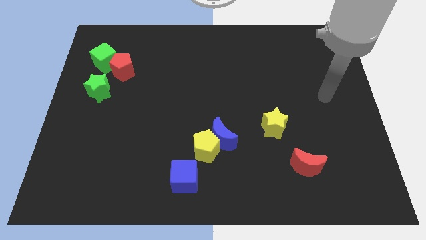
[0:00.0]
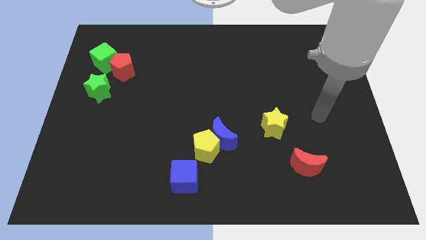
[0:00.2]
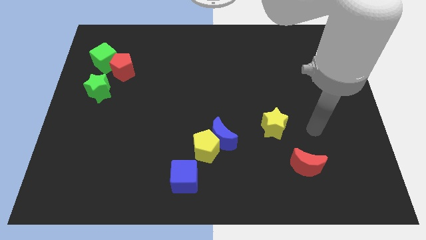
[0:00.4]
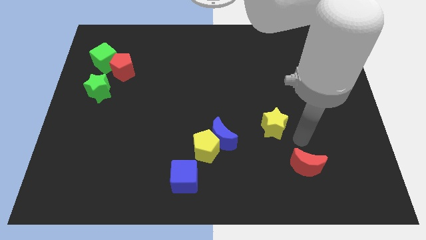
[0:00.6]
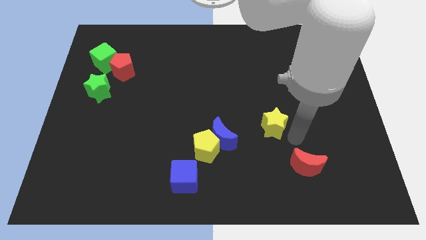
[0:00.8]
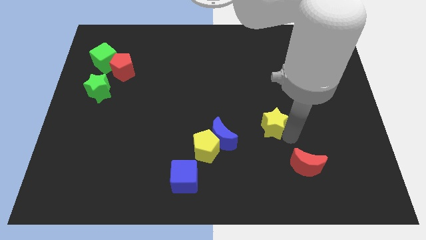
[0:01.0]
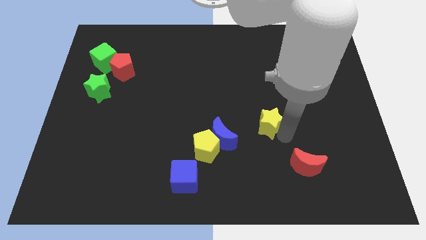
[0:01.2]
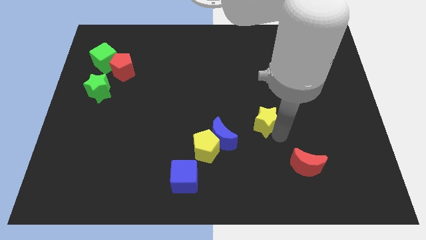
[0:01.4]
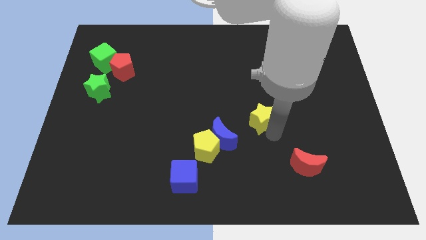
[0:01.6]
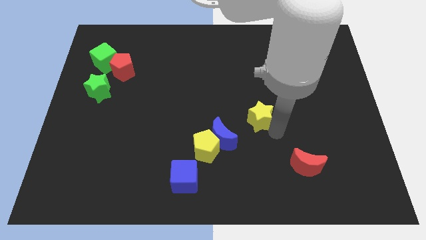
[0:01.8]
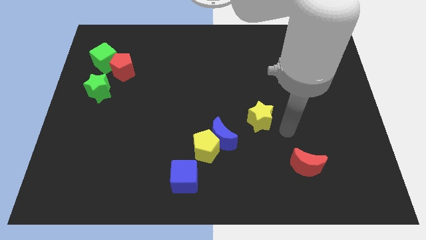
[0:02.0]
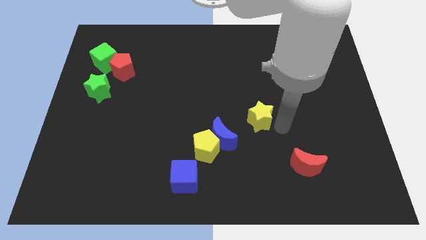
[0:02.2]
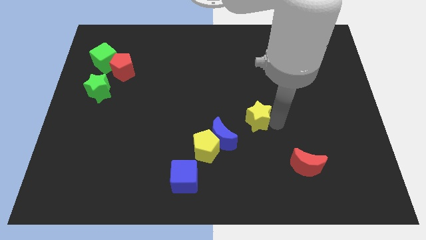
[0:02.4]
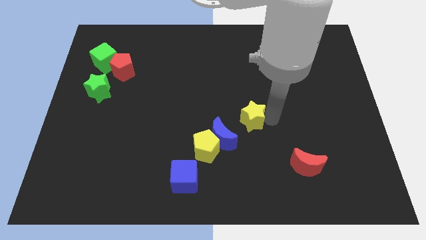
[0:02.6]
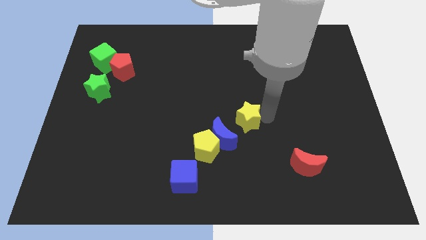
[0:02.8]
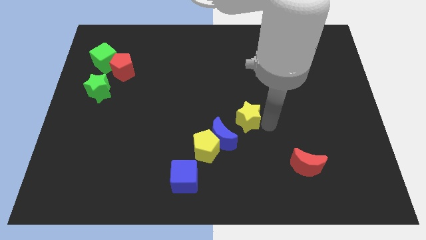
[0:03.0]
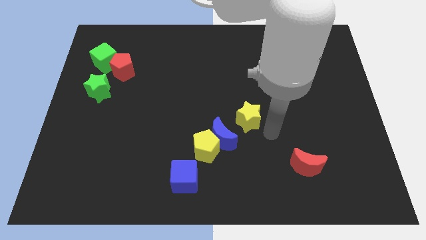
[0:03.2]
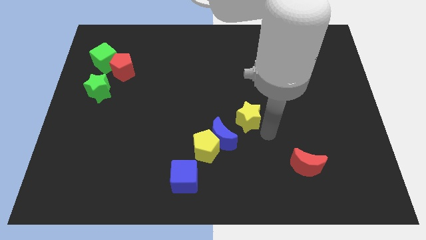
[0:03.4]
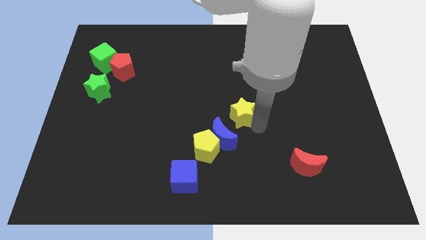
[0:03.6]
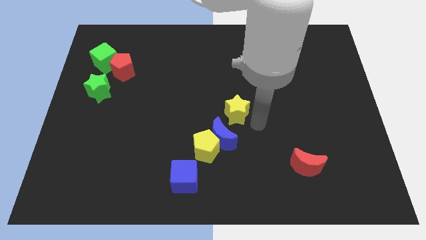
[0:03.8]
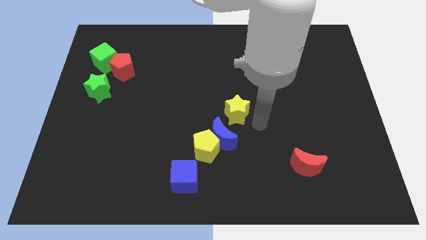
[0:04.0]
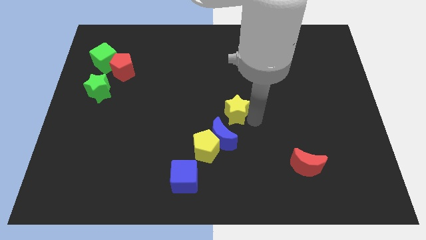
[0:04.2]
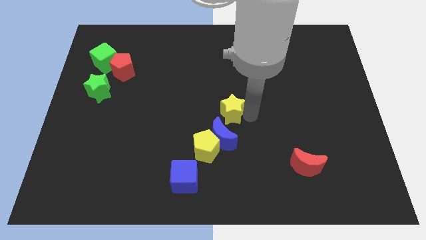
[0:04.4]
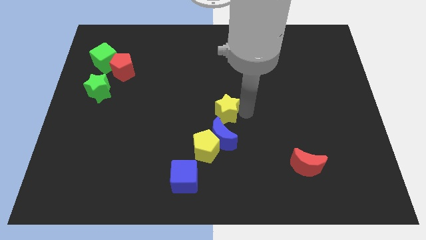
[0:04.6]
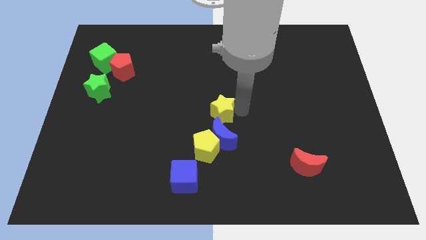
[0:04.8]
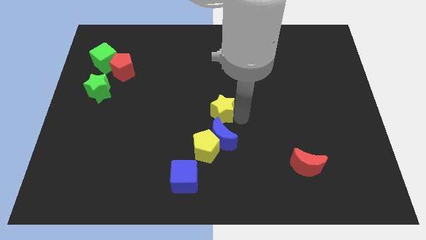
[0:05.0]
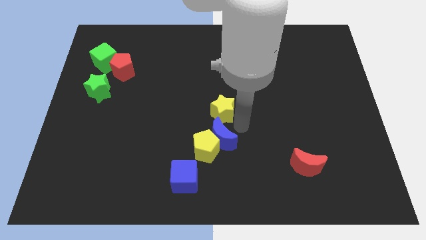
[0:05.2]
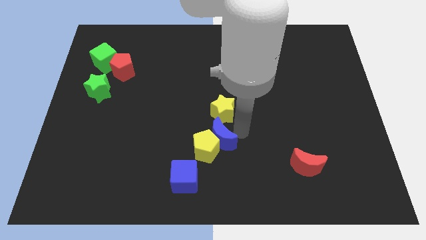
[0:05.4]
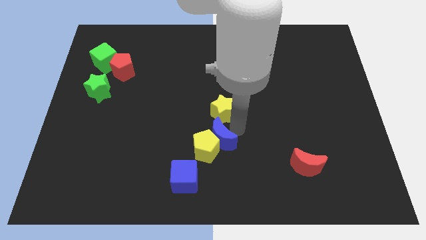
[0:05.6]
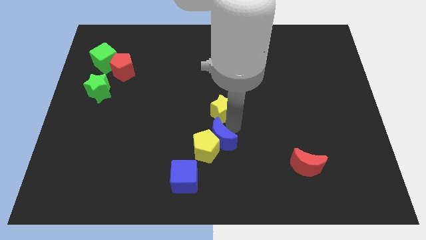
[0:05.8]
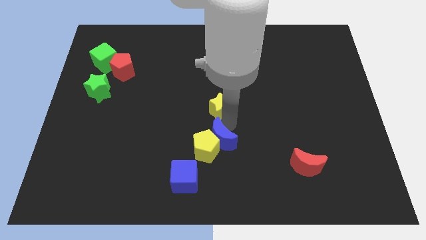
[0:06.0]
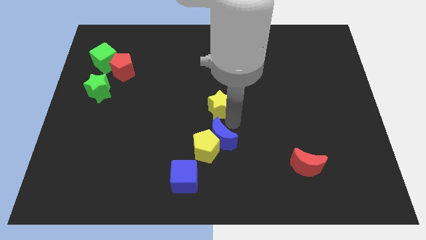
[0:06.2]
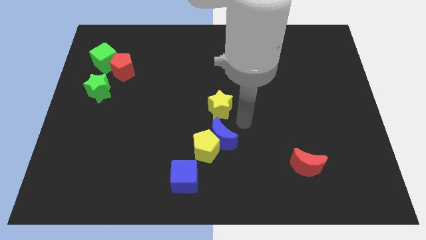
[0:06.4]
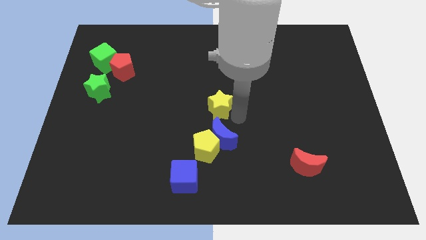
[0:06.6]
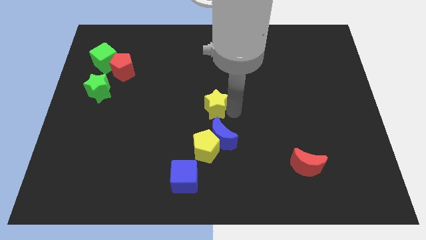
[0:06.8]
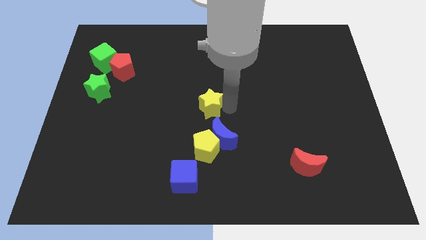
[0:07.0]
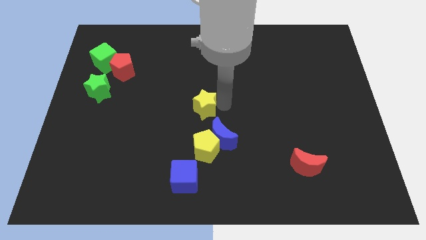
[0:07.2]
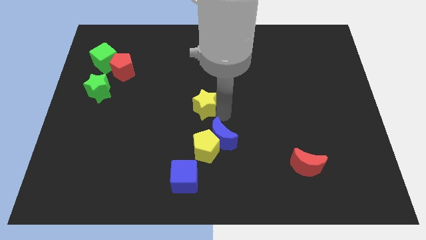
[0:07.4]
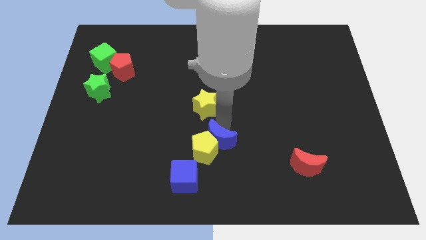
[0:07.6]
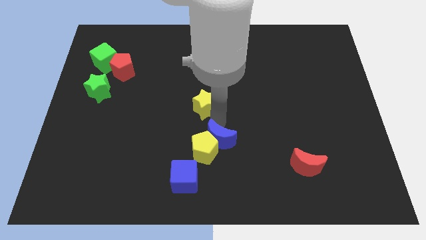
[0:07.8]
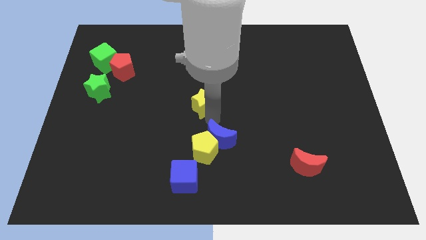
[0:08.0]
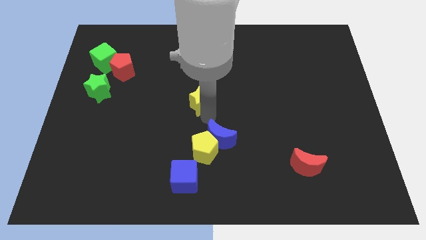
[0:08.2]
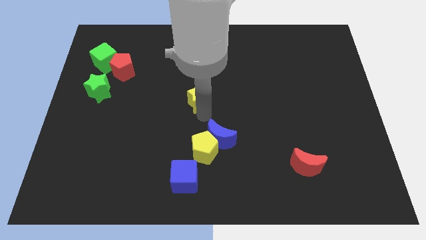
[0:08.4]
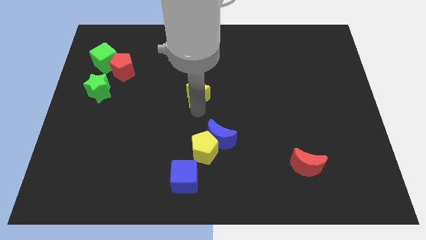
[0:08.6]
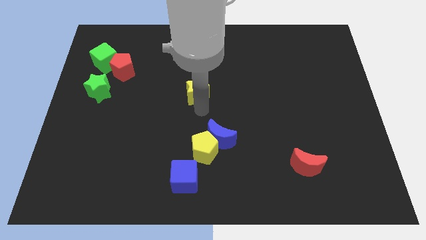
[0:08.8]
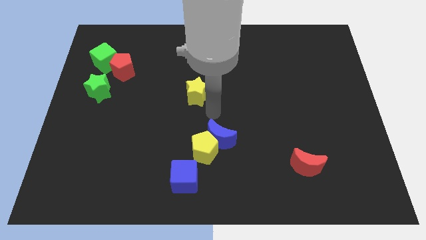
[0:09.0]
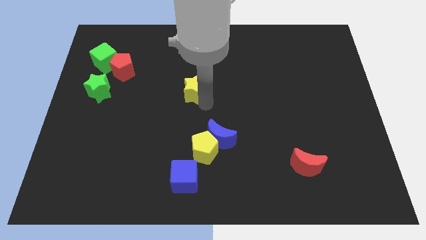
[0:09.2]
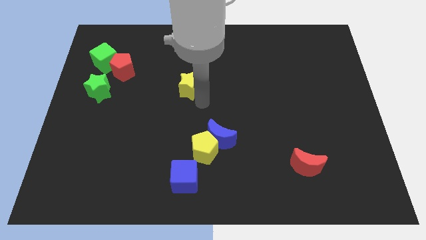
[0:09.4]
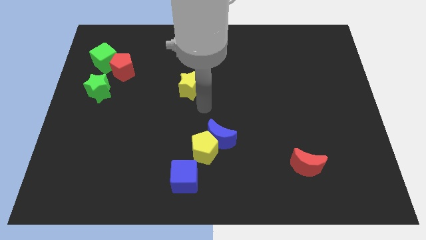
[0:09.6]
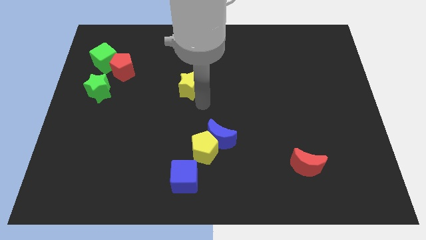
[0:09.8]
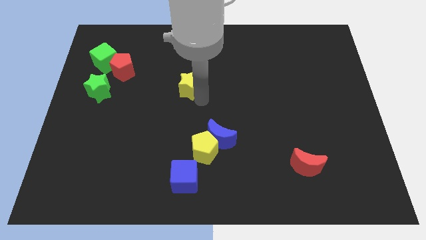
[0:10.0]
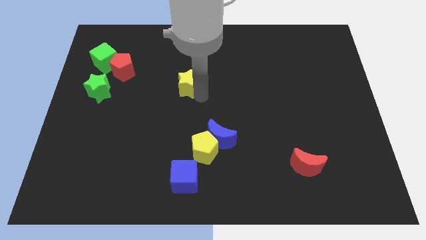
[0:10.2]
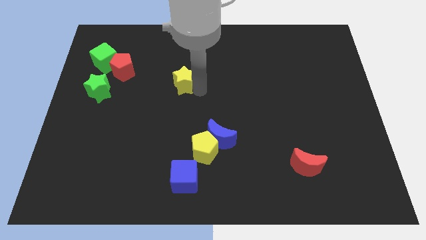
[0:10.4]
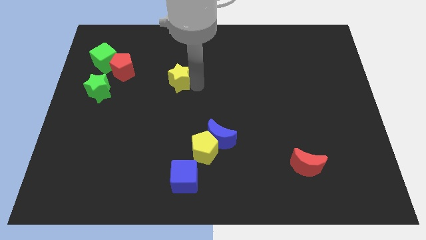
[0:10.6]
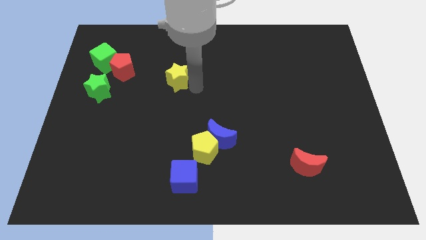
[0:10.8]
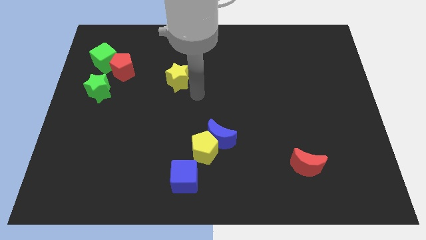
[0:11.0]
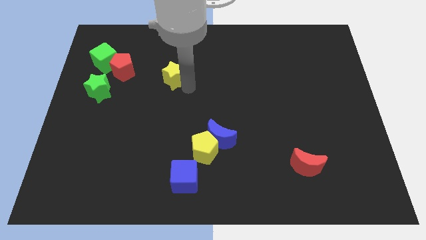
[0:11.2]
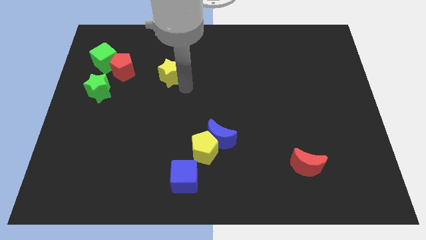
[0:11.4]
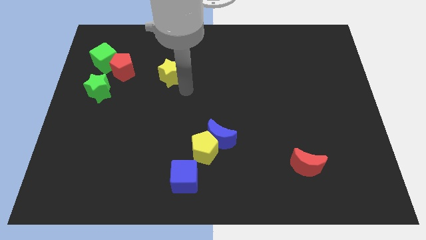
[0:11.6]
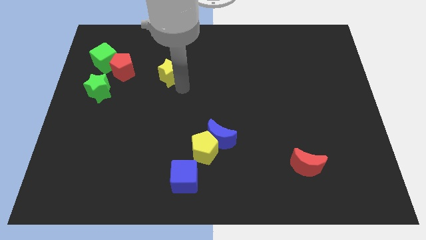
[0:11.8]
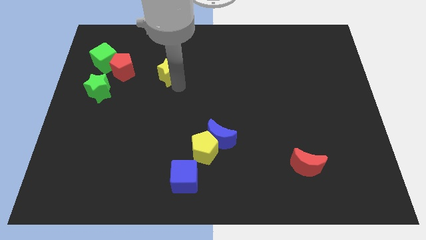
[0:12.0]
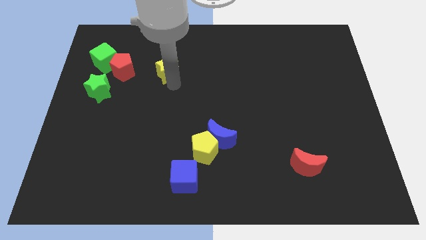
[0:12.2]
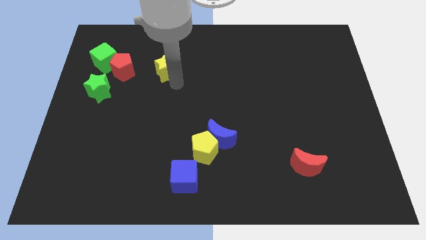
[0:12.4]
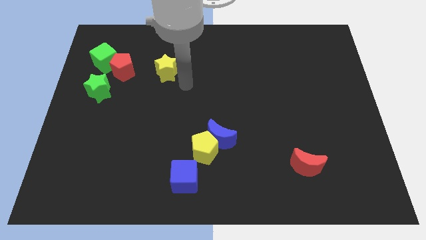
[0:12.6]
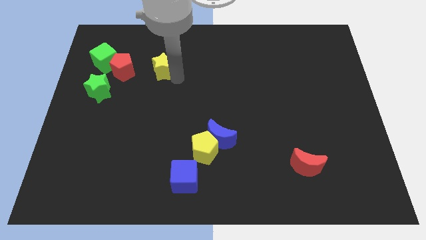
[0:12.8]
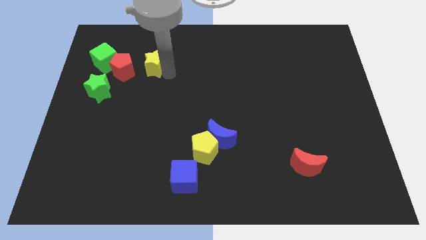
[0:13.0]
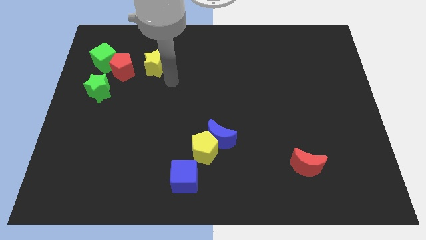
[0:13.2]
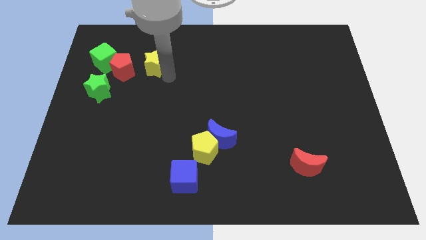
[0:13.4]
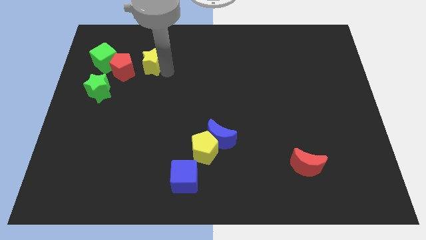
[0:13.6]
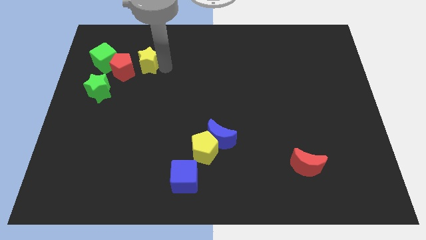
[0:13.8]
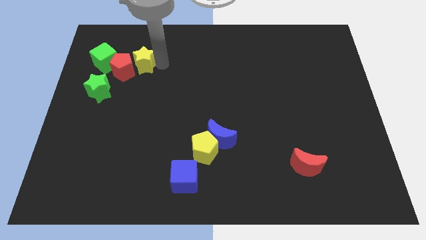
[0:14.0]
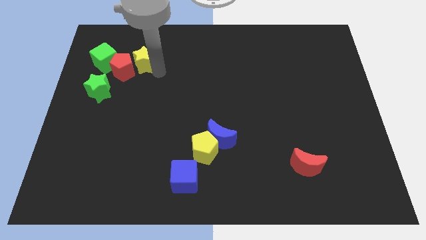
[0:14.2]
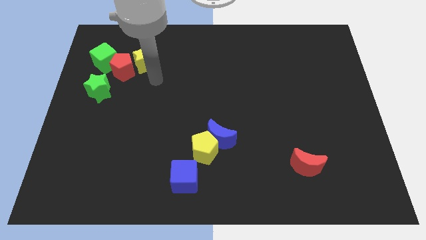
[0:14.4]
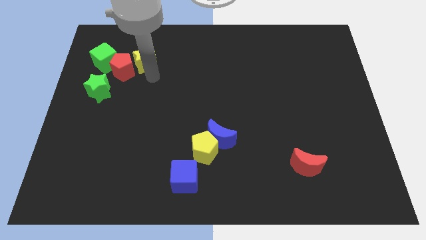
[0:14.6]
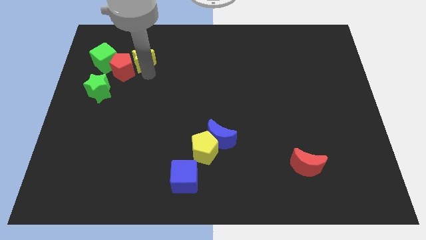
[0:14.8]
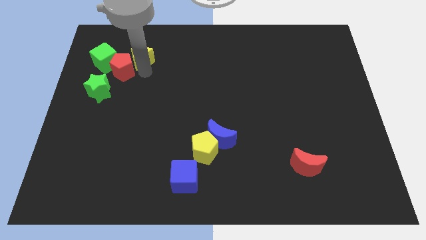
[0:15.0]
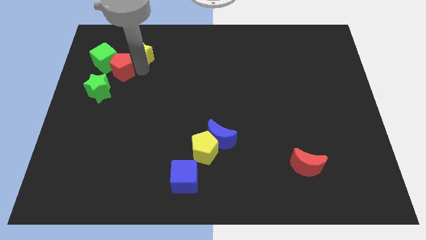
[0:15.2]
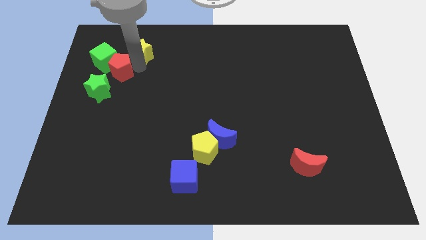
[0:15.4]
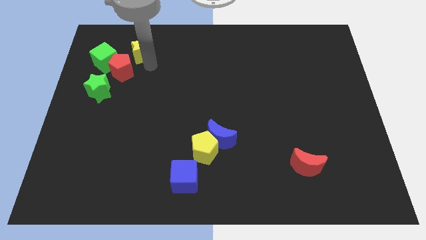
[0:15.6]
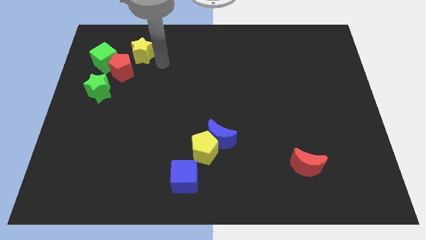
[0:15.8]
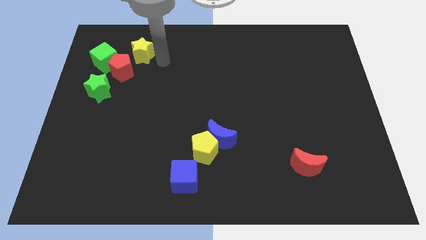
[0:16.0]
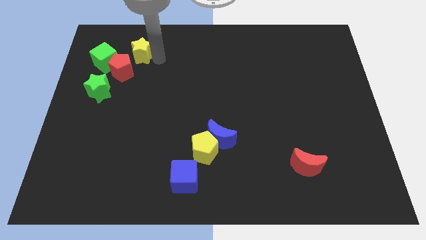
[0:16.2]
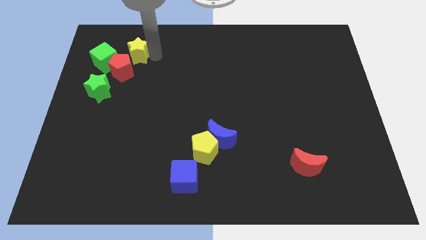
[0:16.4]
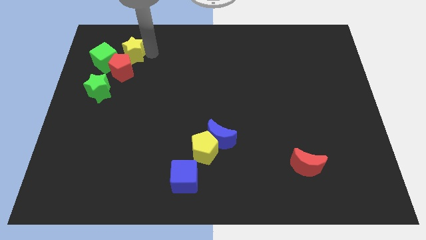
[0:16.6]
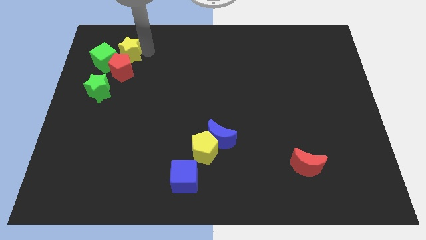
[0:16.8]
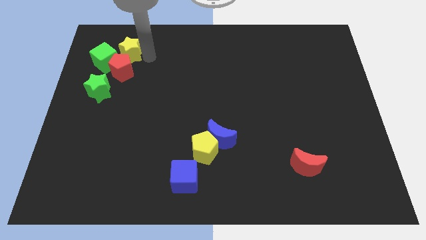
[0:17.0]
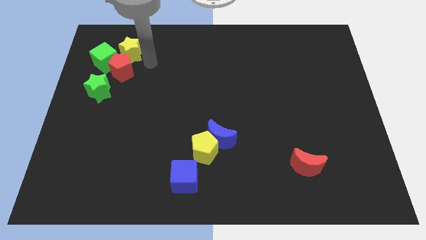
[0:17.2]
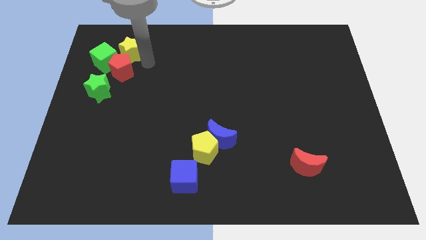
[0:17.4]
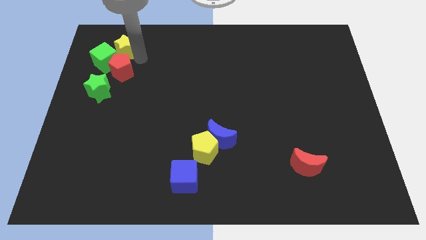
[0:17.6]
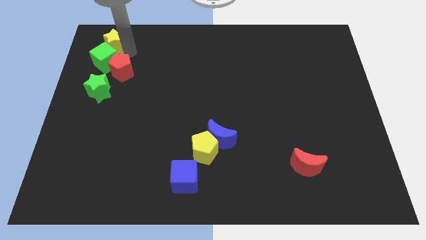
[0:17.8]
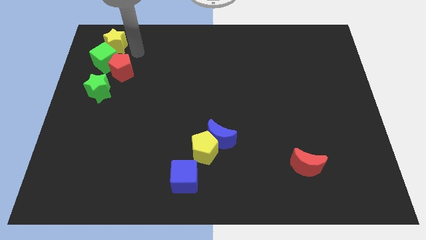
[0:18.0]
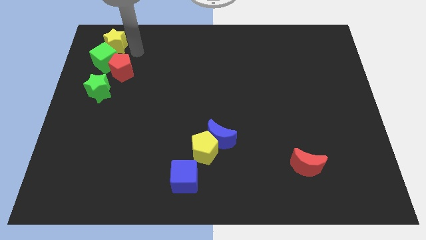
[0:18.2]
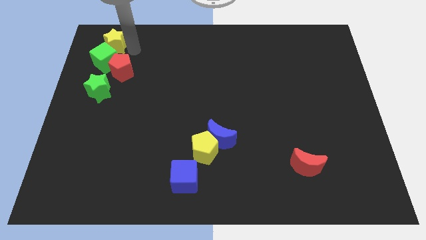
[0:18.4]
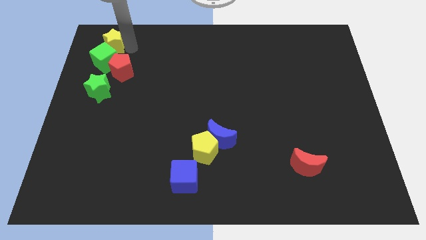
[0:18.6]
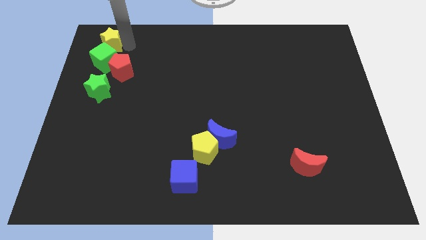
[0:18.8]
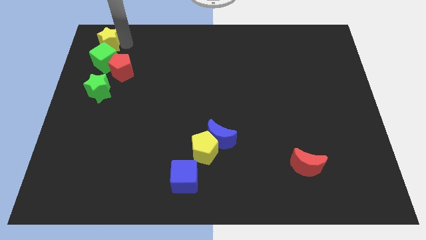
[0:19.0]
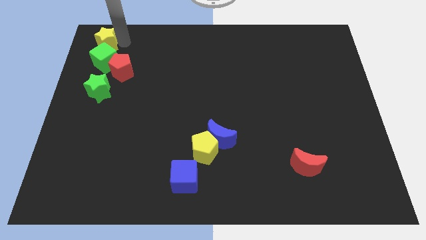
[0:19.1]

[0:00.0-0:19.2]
push the yellow star to the upper left corner
